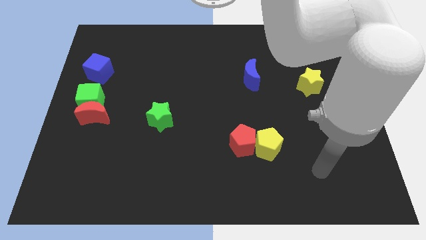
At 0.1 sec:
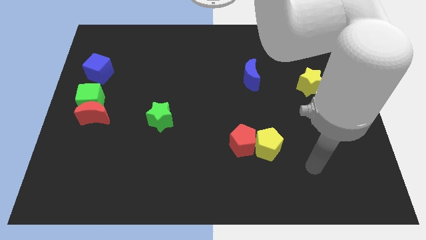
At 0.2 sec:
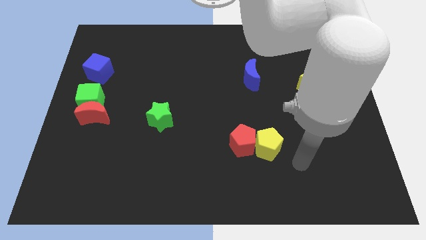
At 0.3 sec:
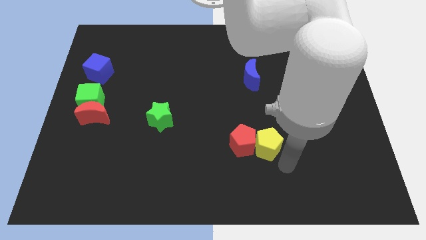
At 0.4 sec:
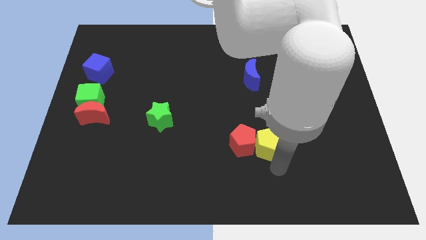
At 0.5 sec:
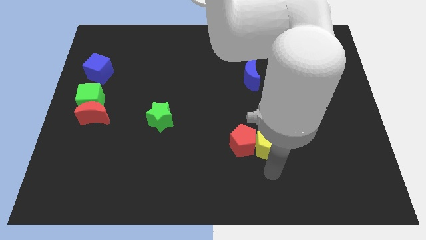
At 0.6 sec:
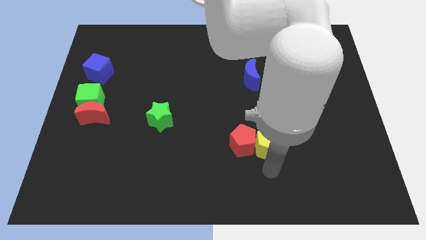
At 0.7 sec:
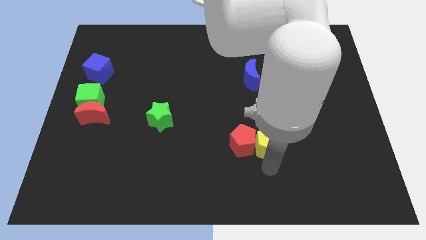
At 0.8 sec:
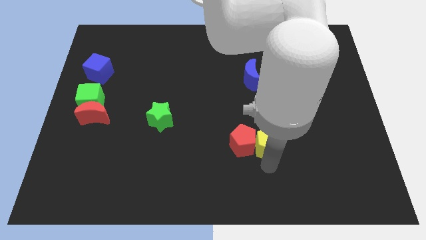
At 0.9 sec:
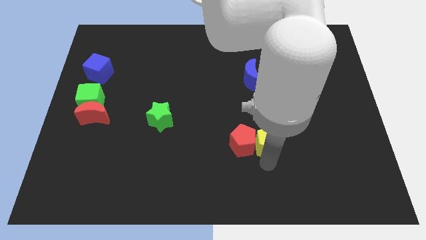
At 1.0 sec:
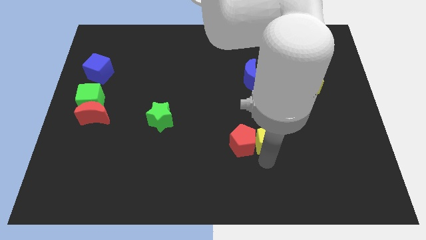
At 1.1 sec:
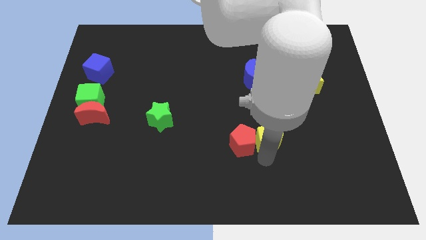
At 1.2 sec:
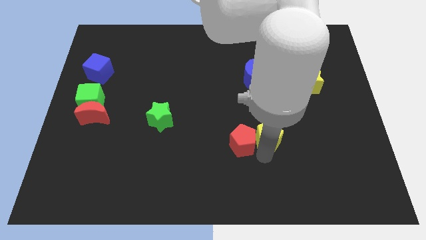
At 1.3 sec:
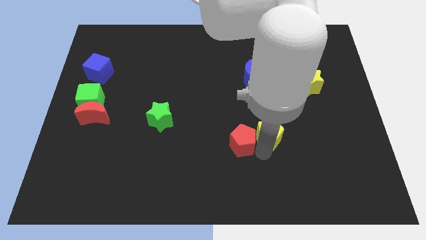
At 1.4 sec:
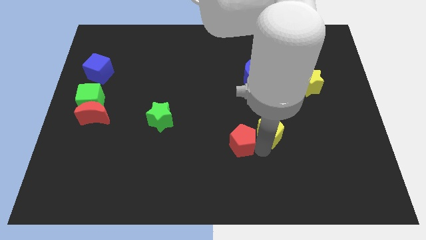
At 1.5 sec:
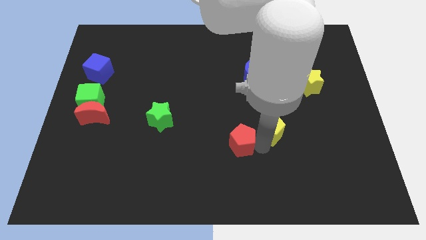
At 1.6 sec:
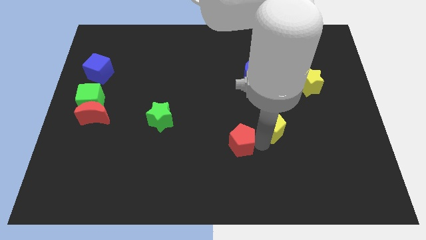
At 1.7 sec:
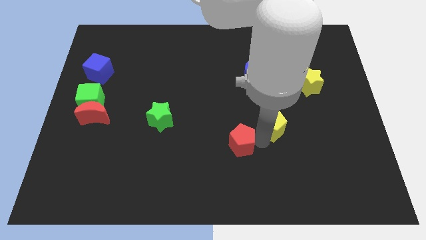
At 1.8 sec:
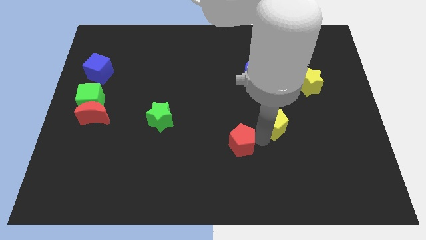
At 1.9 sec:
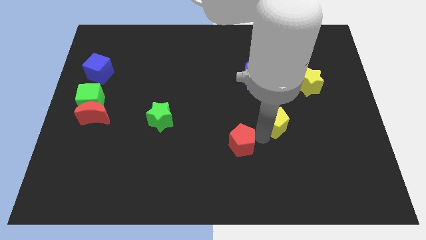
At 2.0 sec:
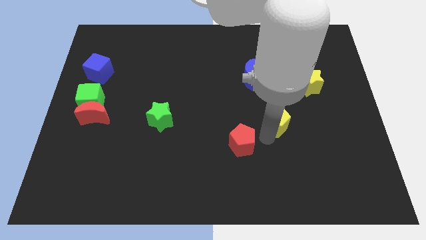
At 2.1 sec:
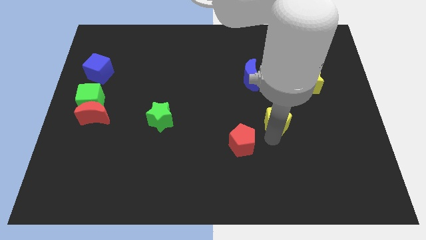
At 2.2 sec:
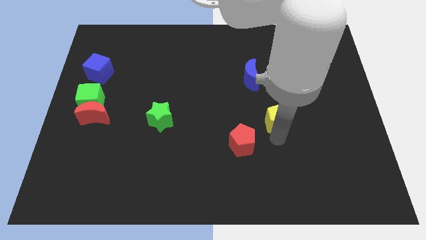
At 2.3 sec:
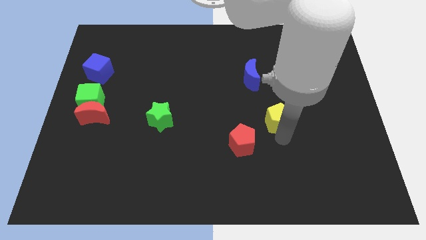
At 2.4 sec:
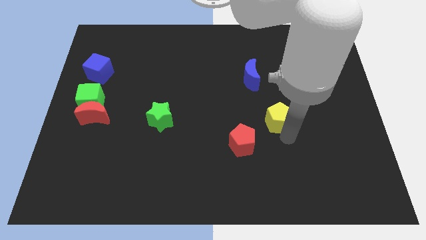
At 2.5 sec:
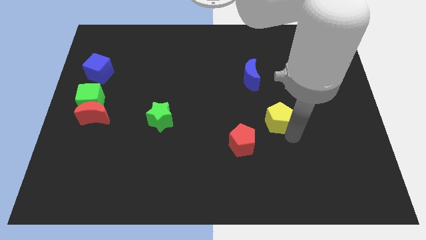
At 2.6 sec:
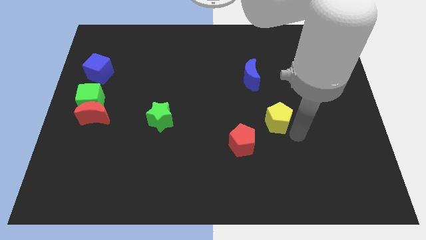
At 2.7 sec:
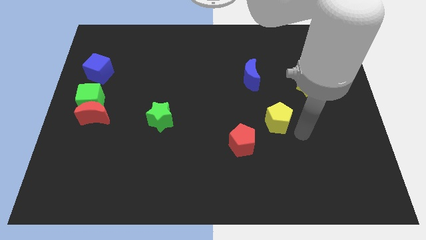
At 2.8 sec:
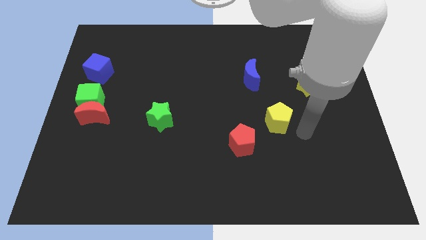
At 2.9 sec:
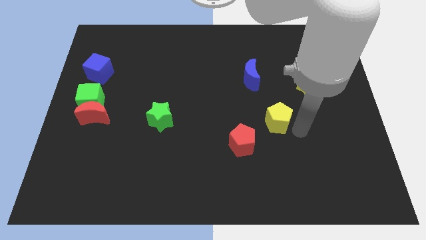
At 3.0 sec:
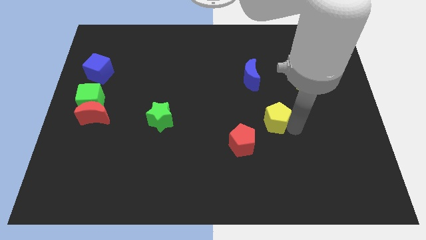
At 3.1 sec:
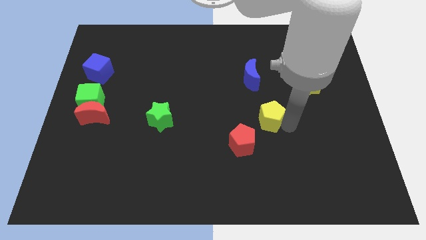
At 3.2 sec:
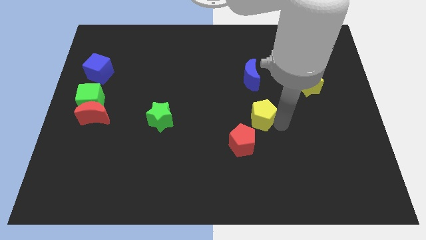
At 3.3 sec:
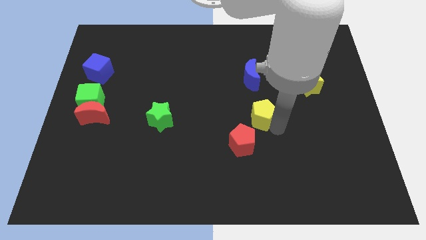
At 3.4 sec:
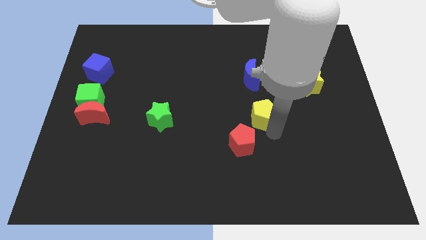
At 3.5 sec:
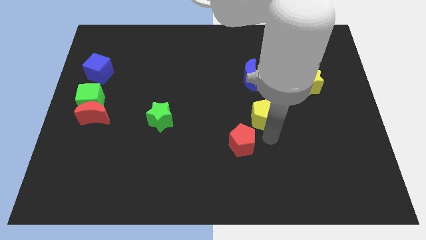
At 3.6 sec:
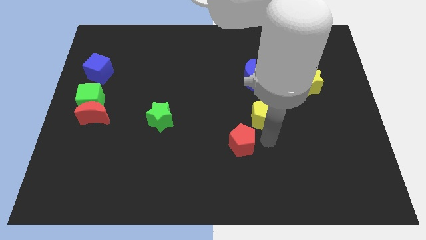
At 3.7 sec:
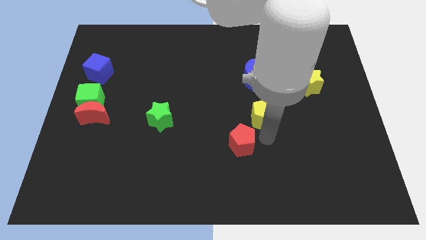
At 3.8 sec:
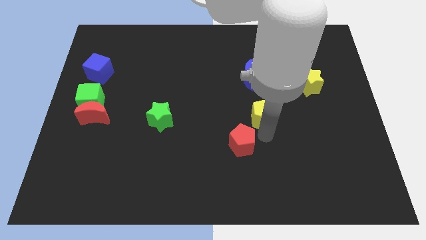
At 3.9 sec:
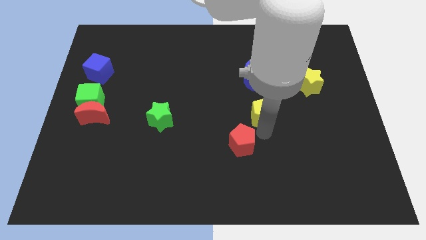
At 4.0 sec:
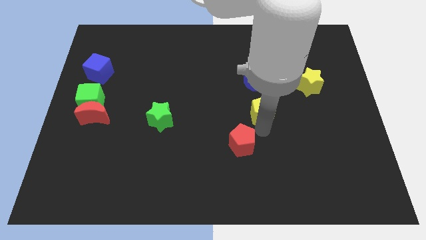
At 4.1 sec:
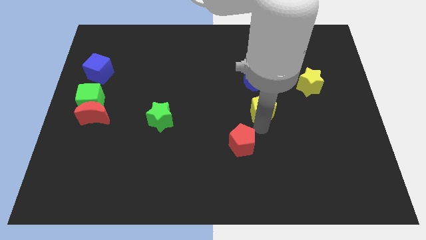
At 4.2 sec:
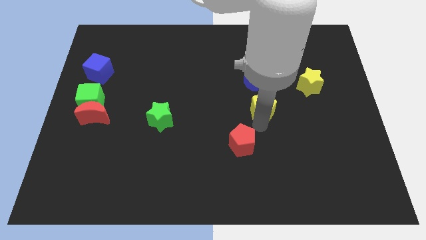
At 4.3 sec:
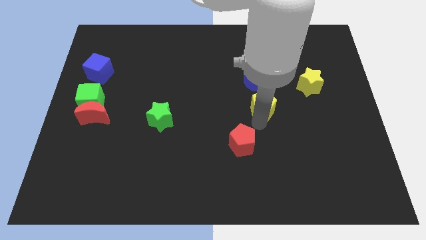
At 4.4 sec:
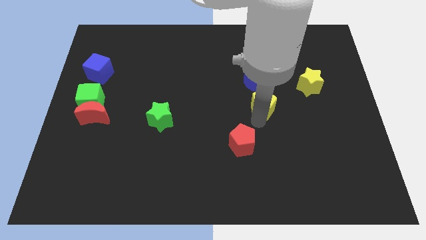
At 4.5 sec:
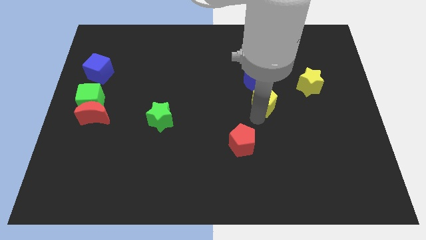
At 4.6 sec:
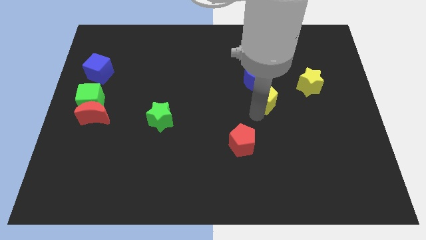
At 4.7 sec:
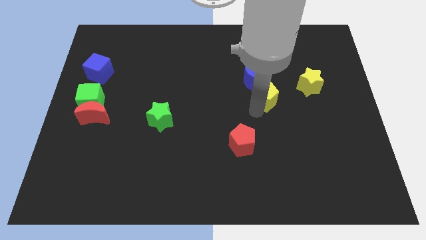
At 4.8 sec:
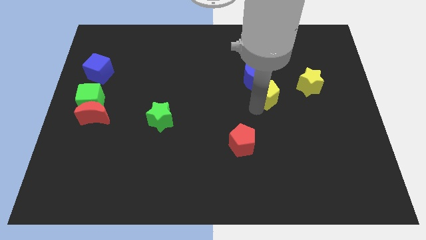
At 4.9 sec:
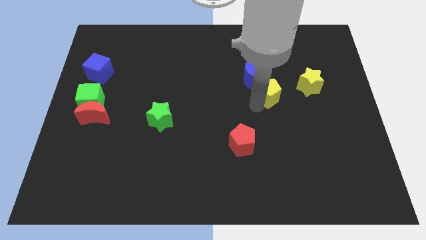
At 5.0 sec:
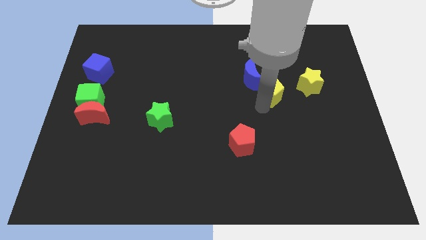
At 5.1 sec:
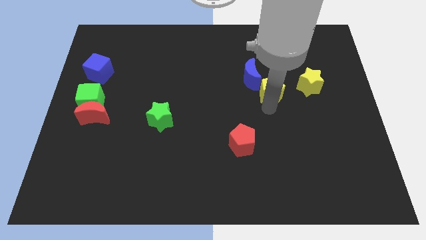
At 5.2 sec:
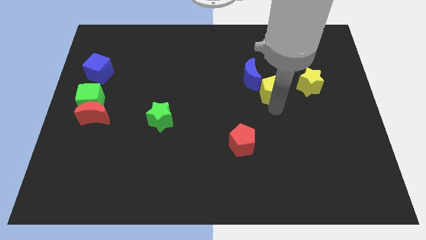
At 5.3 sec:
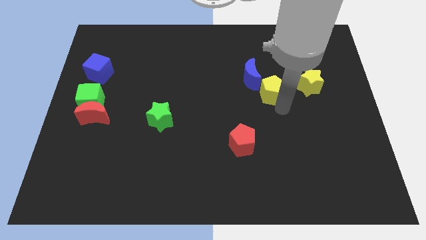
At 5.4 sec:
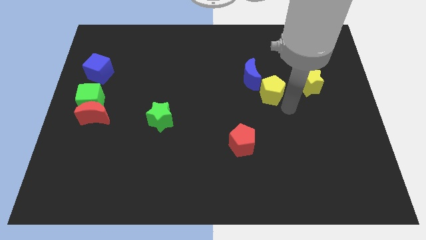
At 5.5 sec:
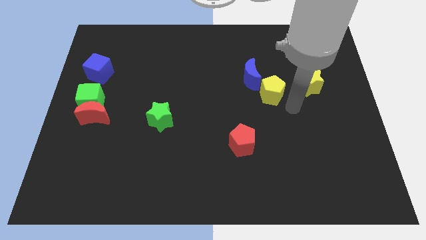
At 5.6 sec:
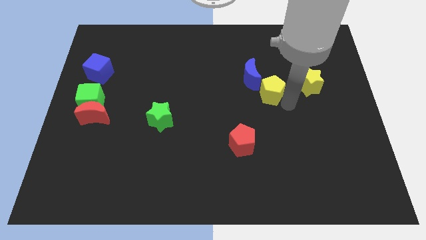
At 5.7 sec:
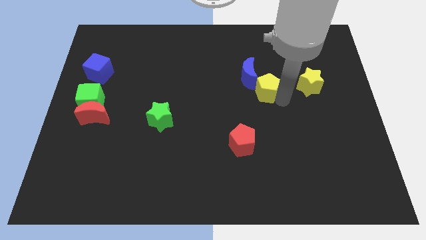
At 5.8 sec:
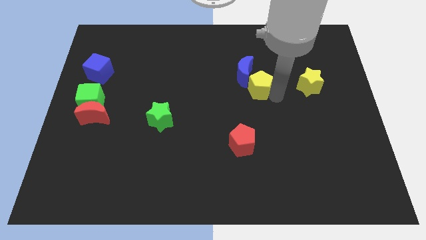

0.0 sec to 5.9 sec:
move the yellow pentagon close to the blue moon

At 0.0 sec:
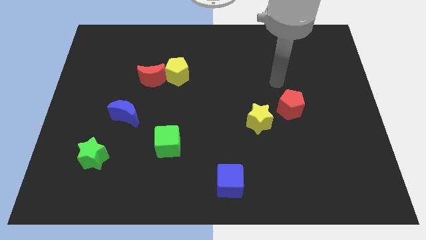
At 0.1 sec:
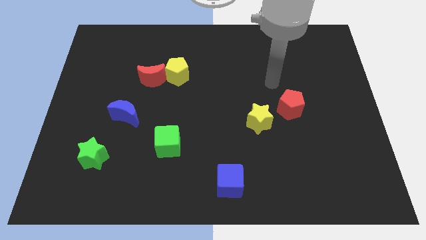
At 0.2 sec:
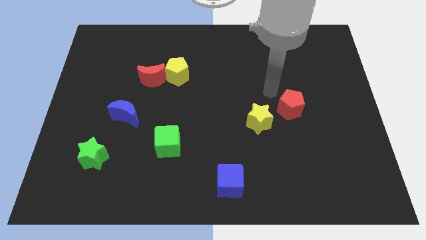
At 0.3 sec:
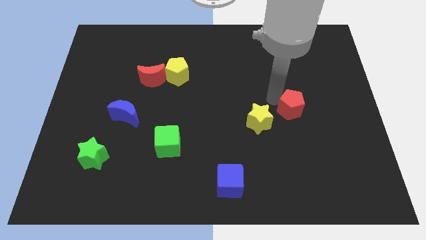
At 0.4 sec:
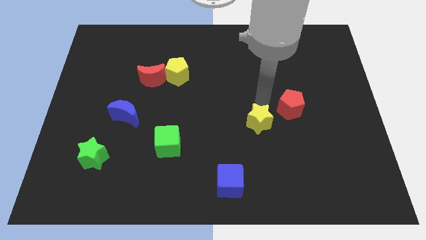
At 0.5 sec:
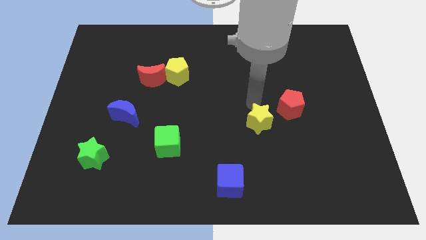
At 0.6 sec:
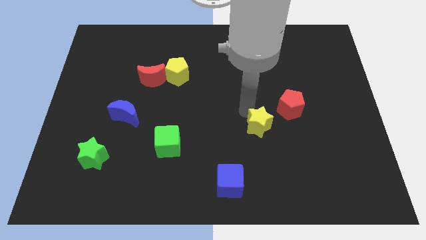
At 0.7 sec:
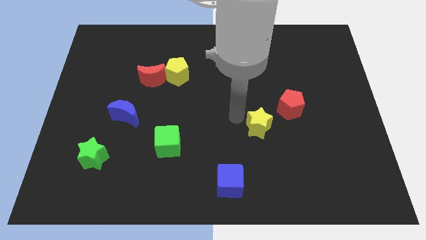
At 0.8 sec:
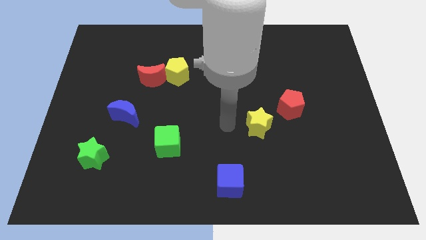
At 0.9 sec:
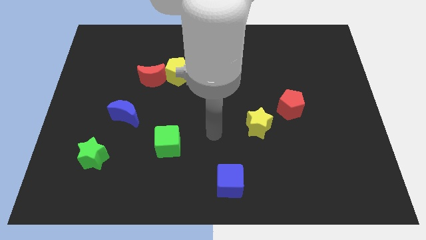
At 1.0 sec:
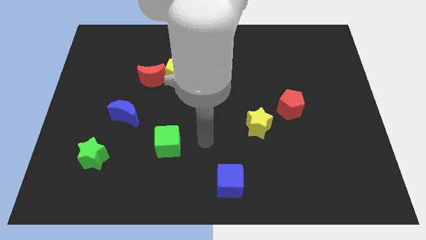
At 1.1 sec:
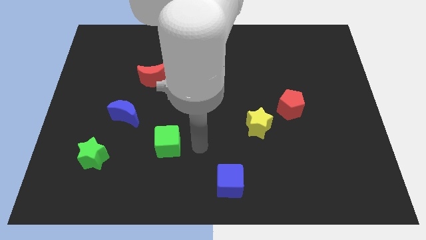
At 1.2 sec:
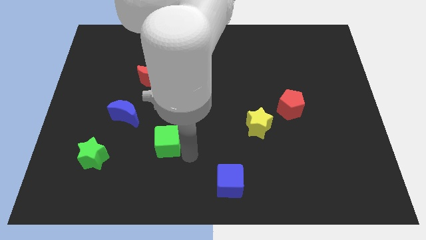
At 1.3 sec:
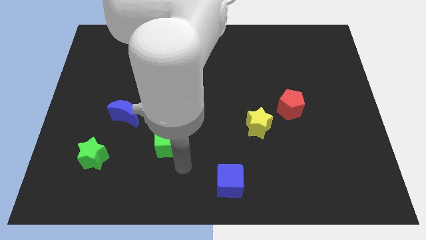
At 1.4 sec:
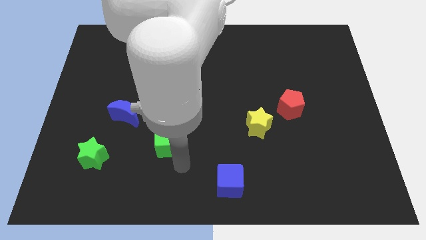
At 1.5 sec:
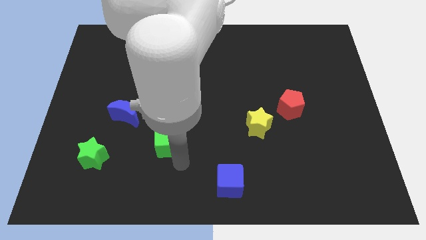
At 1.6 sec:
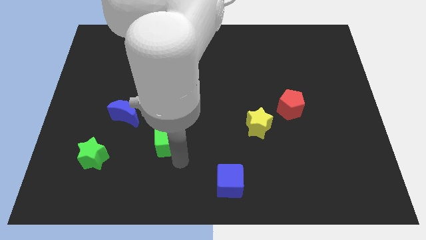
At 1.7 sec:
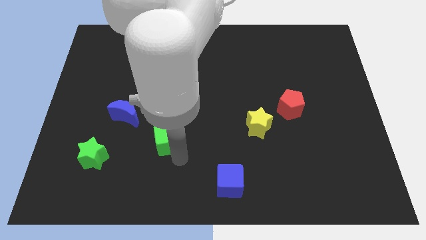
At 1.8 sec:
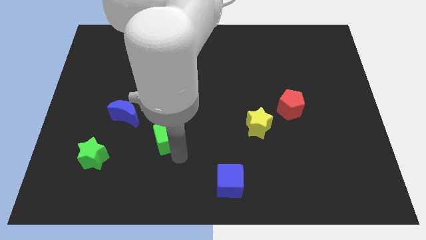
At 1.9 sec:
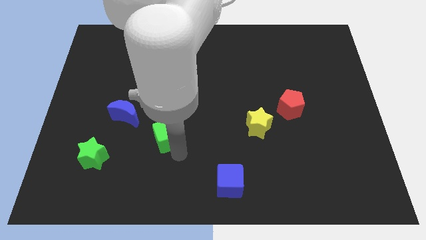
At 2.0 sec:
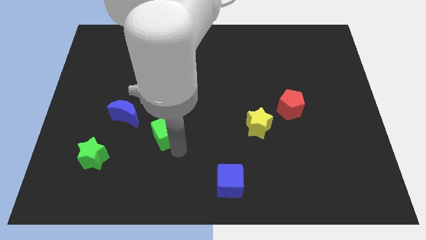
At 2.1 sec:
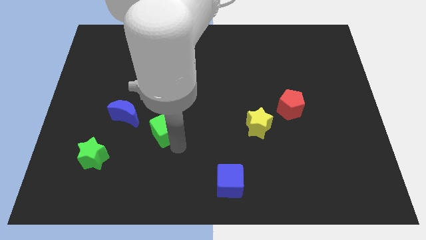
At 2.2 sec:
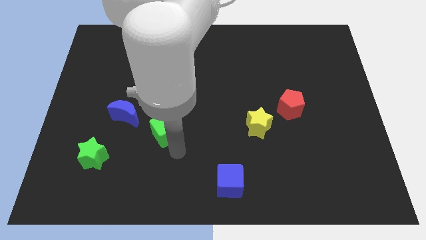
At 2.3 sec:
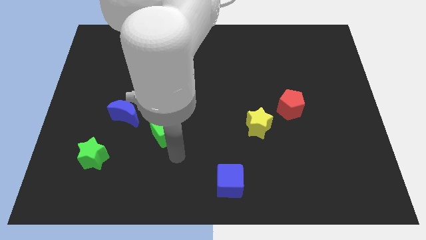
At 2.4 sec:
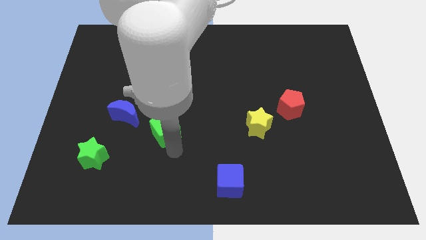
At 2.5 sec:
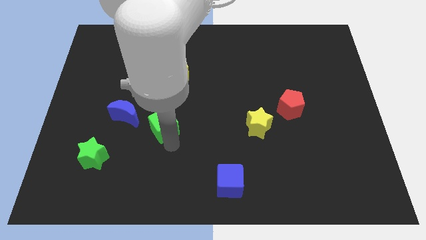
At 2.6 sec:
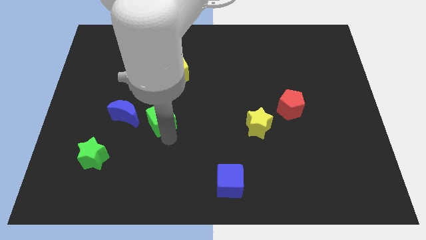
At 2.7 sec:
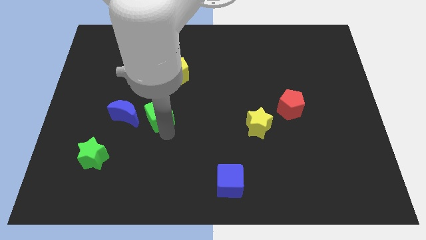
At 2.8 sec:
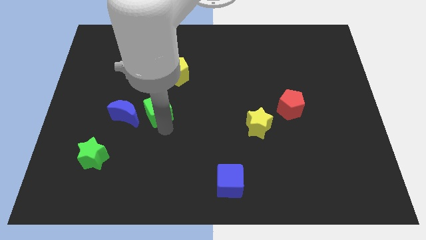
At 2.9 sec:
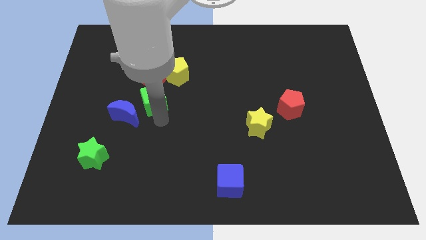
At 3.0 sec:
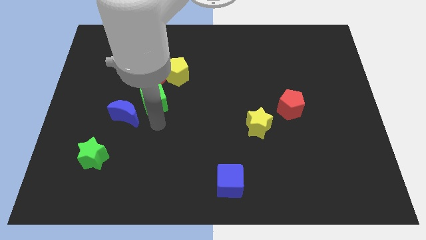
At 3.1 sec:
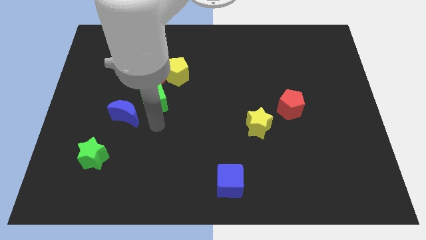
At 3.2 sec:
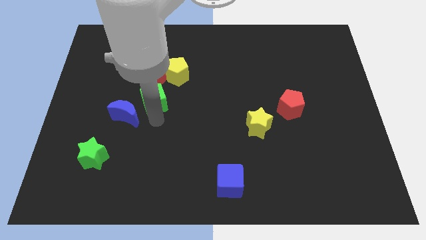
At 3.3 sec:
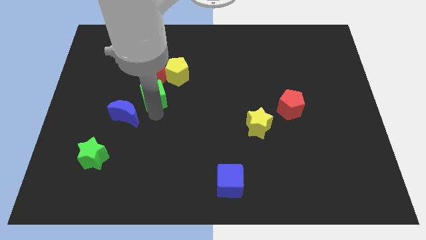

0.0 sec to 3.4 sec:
push the green cube close to the red moon
